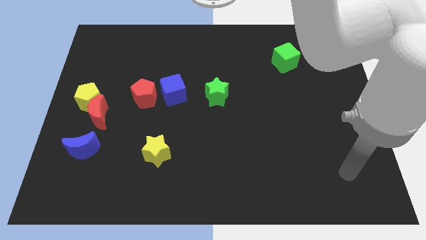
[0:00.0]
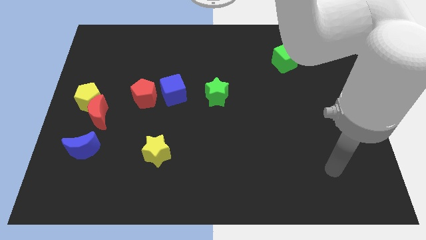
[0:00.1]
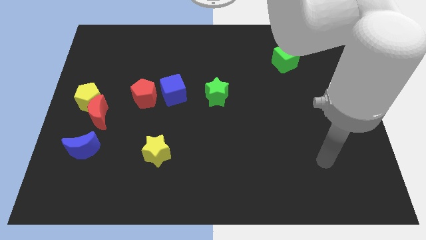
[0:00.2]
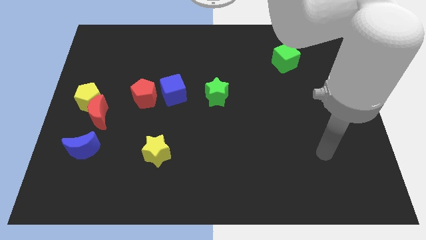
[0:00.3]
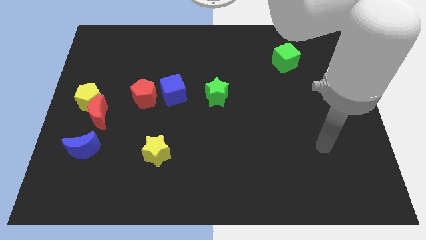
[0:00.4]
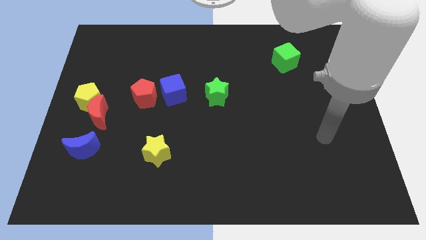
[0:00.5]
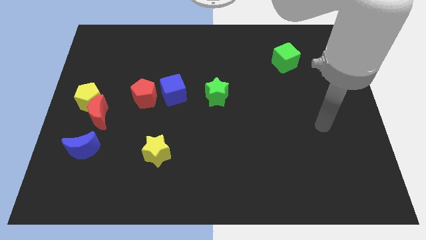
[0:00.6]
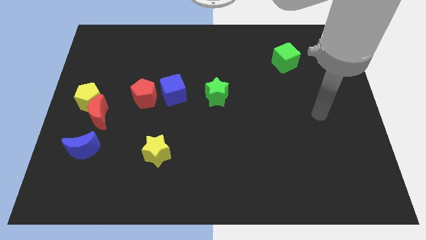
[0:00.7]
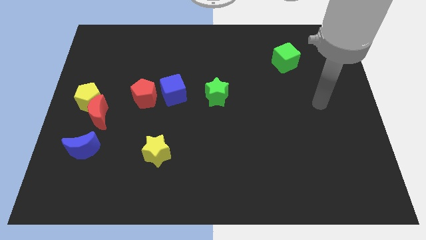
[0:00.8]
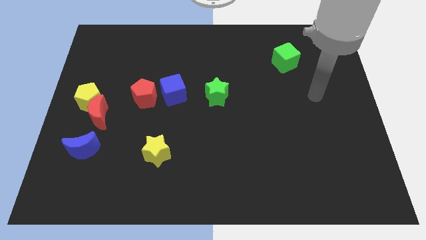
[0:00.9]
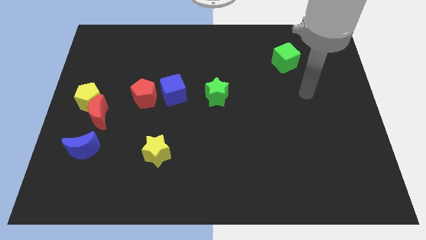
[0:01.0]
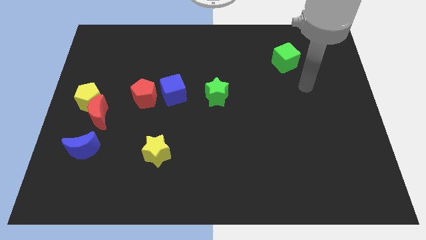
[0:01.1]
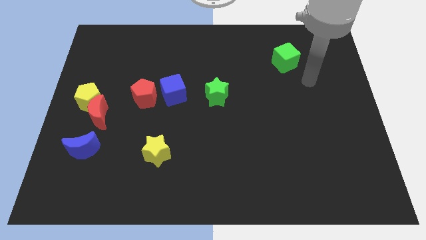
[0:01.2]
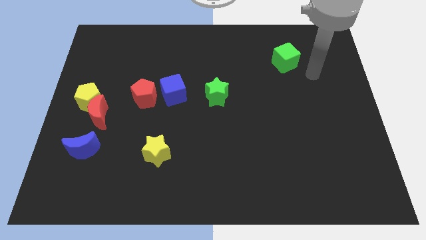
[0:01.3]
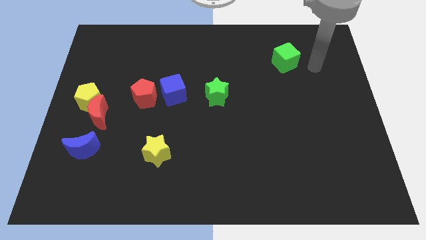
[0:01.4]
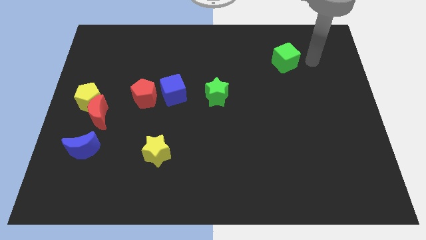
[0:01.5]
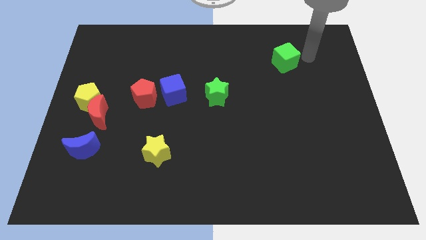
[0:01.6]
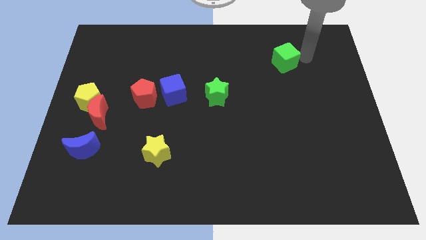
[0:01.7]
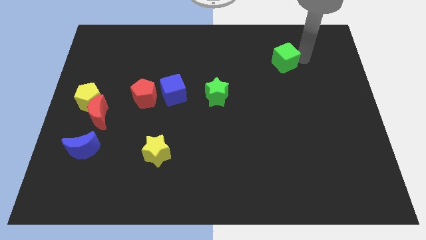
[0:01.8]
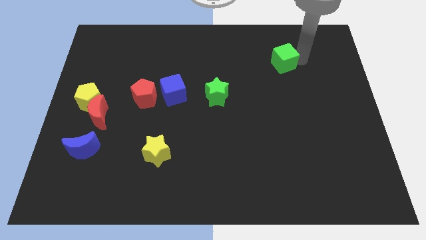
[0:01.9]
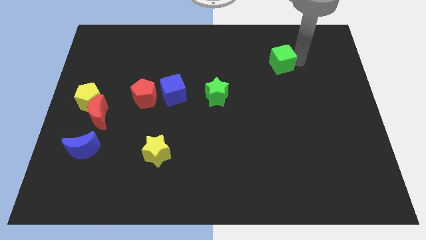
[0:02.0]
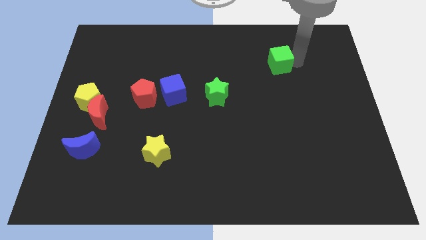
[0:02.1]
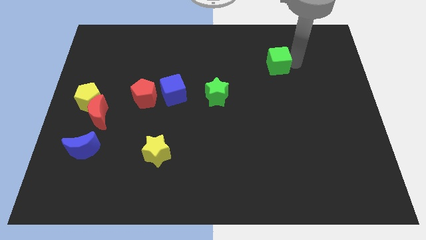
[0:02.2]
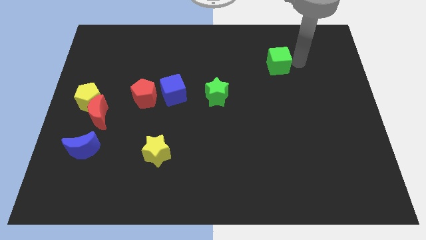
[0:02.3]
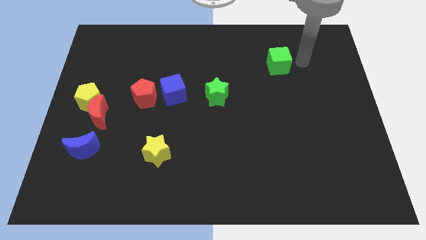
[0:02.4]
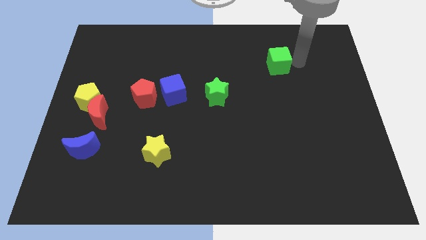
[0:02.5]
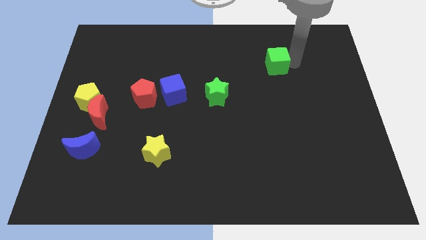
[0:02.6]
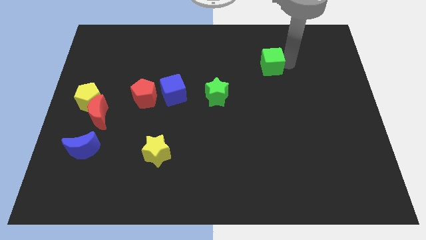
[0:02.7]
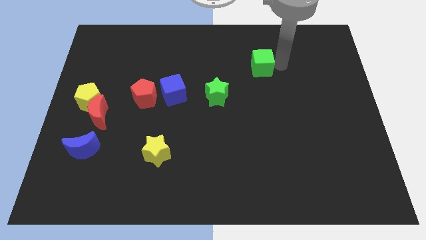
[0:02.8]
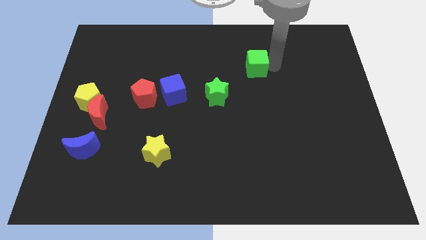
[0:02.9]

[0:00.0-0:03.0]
slide the green cube a bit left

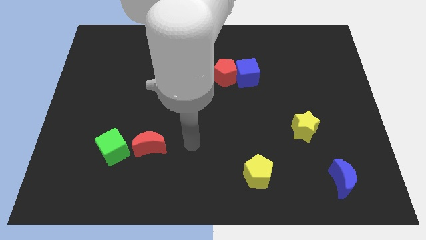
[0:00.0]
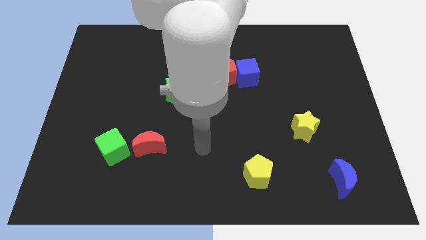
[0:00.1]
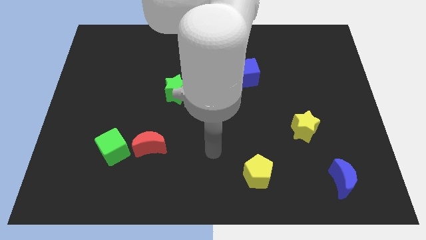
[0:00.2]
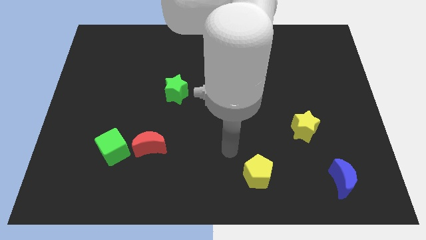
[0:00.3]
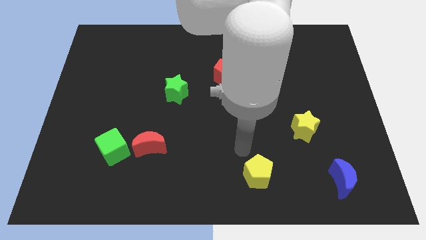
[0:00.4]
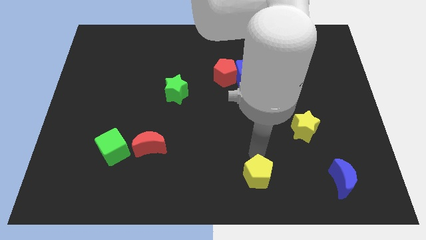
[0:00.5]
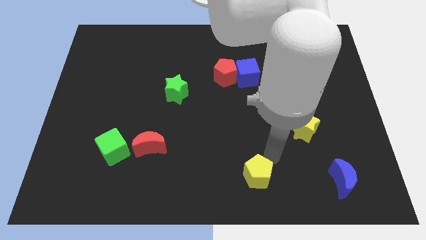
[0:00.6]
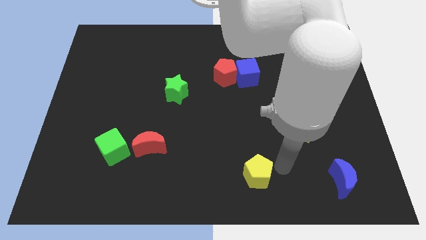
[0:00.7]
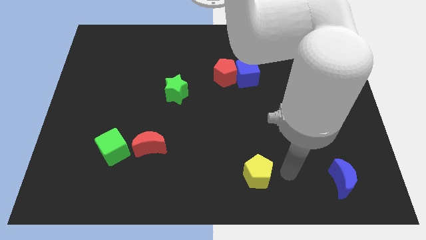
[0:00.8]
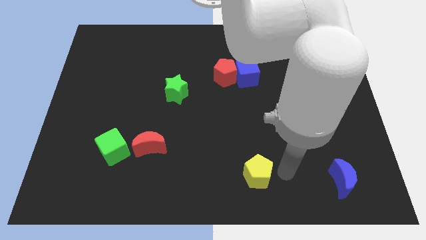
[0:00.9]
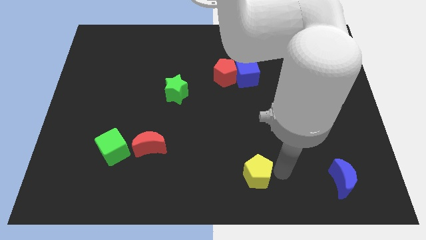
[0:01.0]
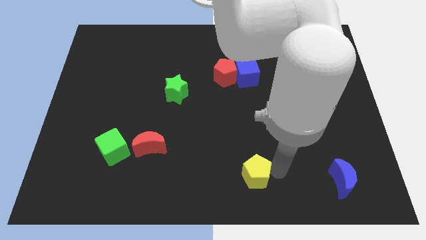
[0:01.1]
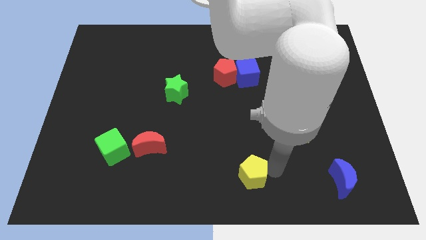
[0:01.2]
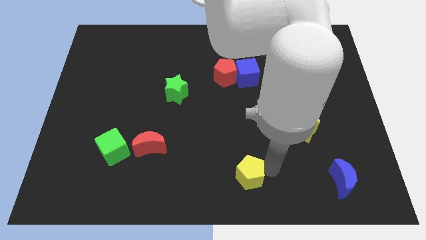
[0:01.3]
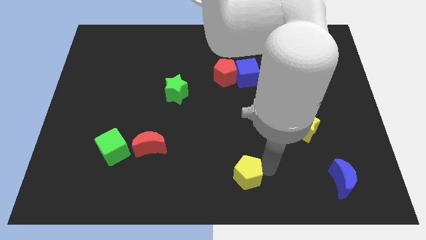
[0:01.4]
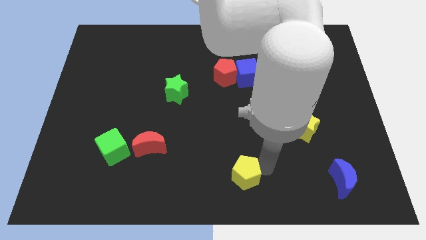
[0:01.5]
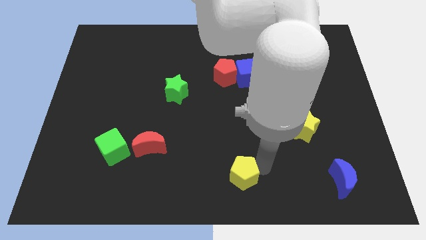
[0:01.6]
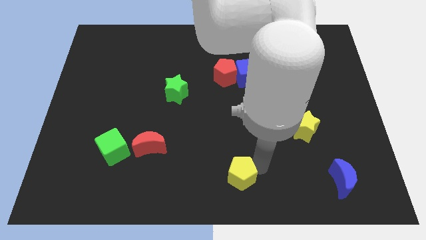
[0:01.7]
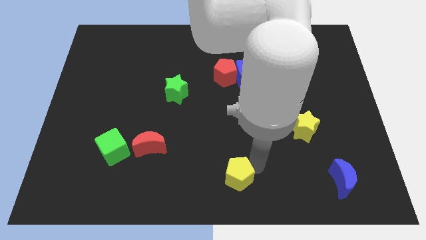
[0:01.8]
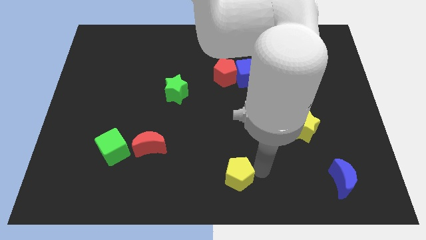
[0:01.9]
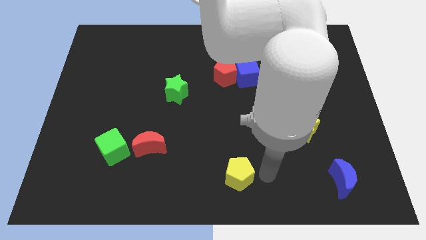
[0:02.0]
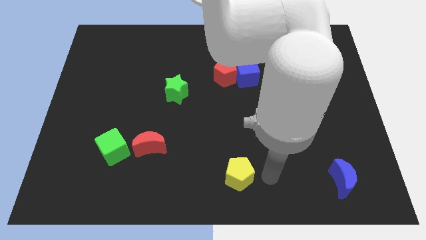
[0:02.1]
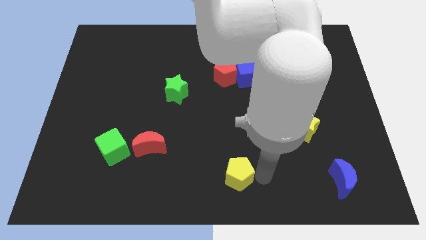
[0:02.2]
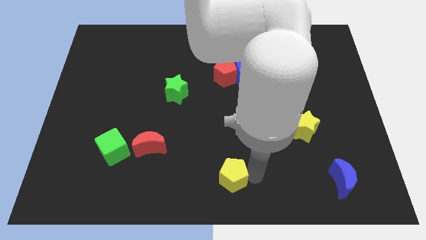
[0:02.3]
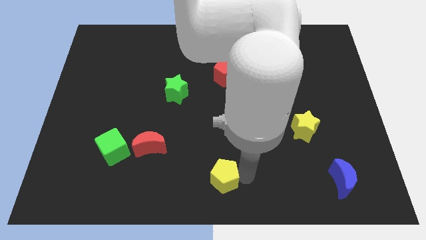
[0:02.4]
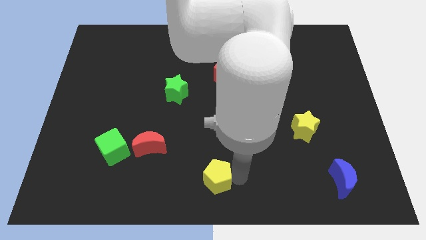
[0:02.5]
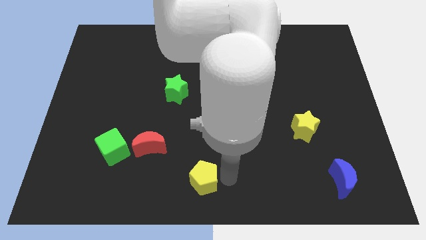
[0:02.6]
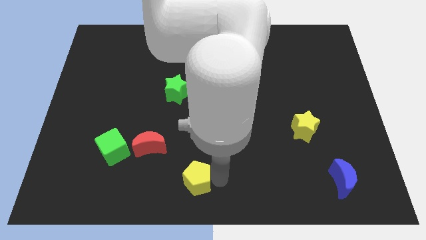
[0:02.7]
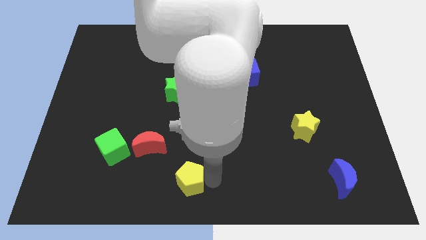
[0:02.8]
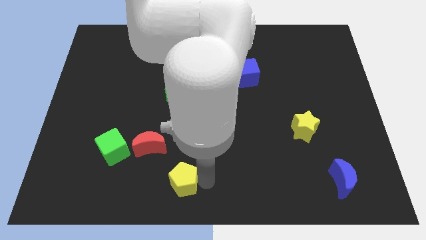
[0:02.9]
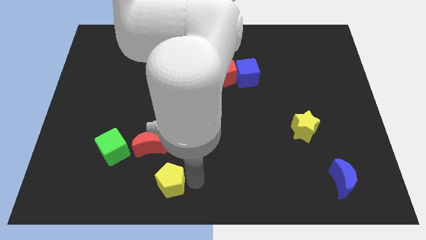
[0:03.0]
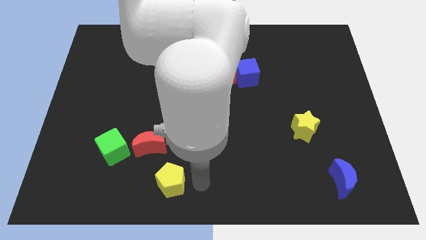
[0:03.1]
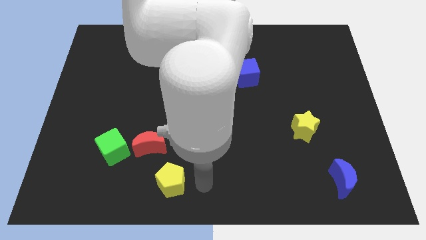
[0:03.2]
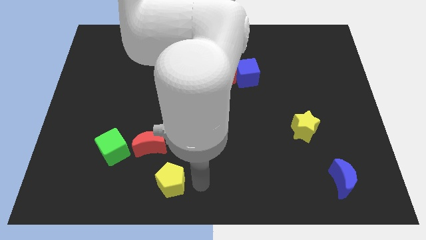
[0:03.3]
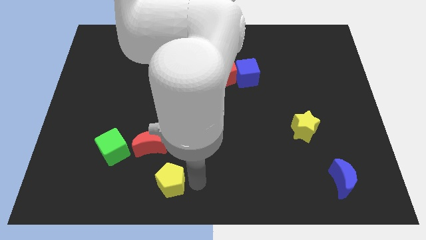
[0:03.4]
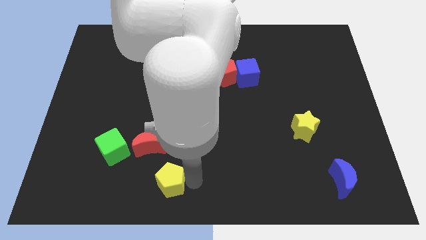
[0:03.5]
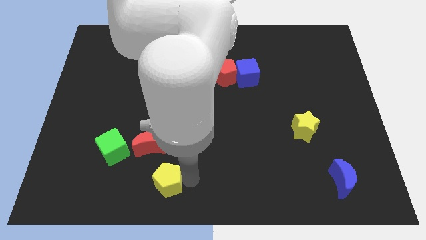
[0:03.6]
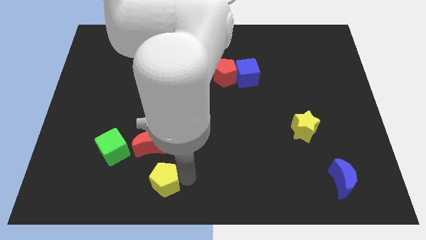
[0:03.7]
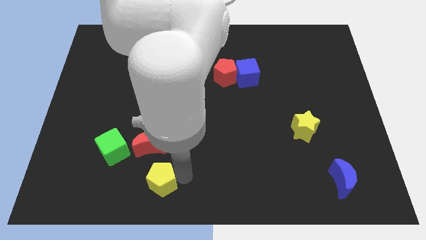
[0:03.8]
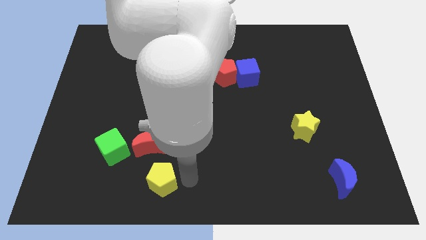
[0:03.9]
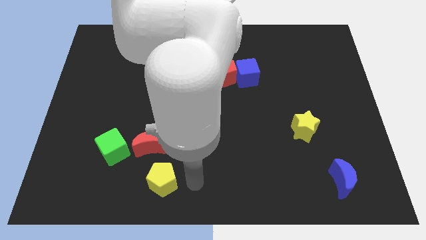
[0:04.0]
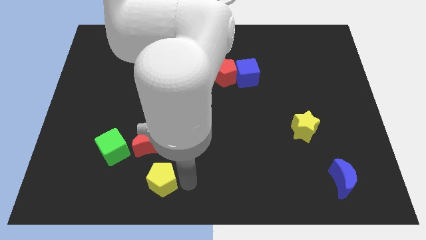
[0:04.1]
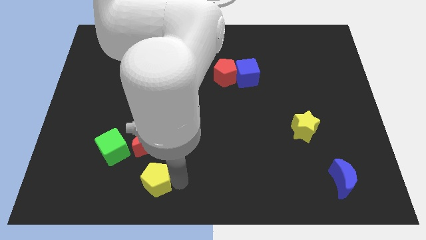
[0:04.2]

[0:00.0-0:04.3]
move the yellow pentagon to the left

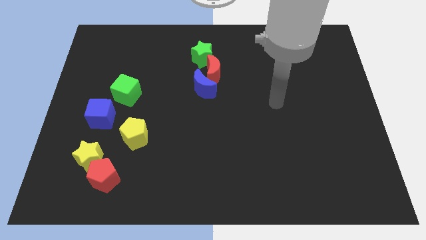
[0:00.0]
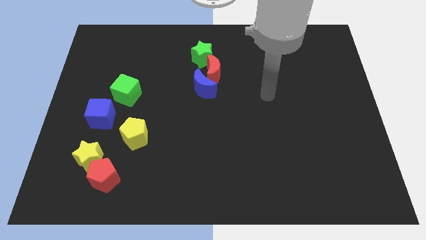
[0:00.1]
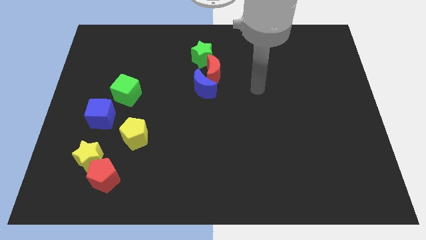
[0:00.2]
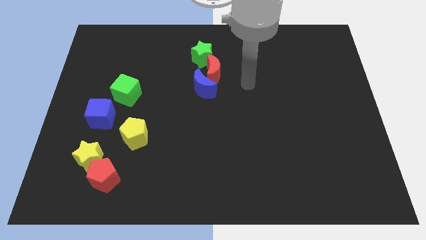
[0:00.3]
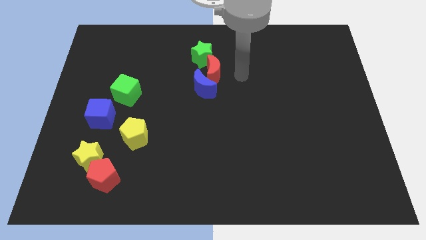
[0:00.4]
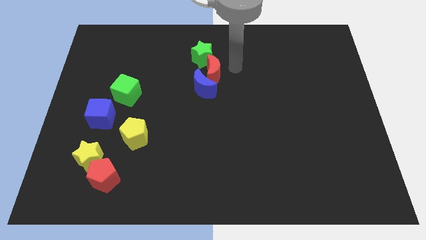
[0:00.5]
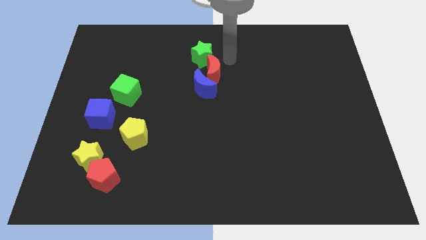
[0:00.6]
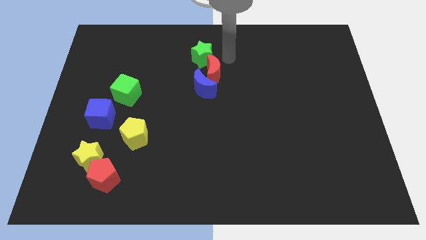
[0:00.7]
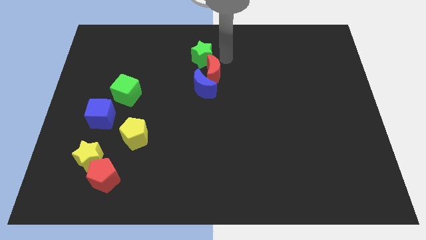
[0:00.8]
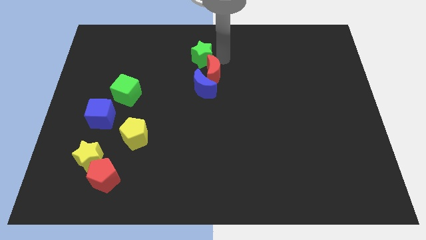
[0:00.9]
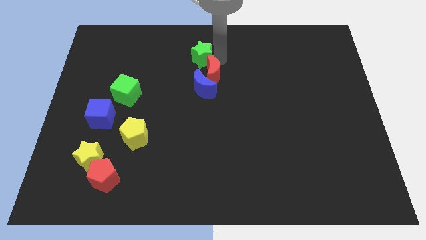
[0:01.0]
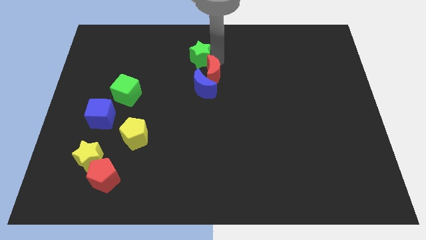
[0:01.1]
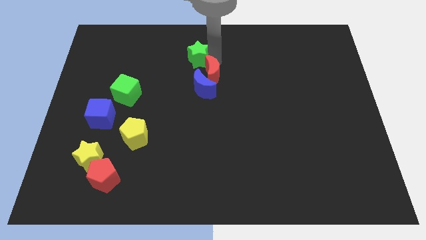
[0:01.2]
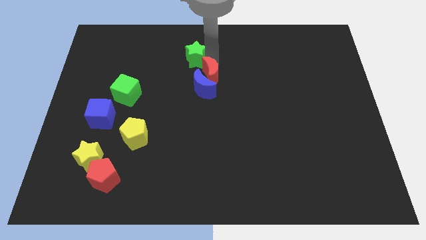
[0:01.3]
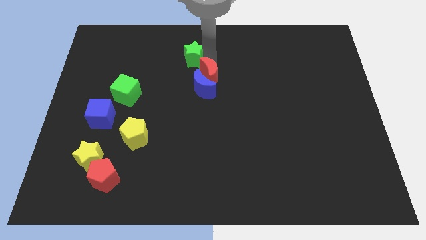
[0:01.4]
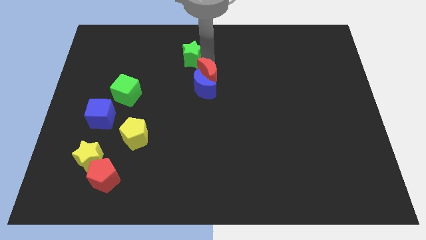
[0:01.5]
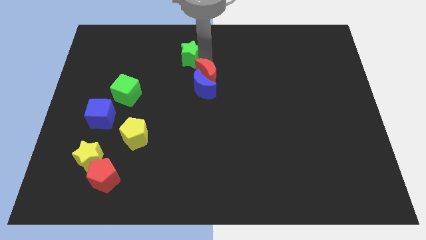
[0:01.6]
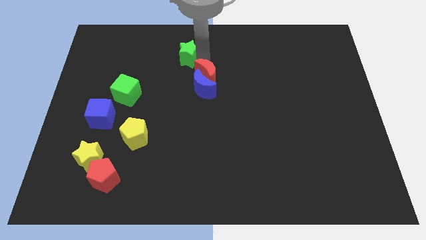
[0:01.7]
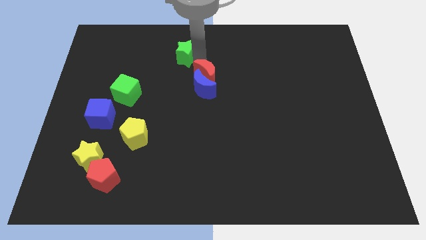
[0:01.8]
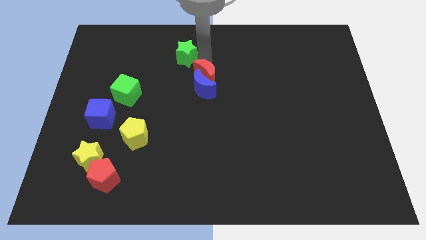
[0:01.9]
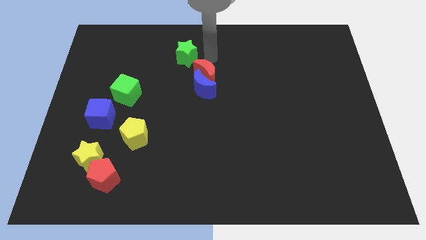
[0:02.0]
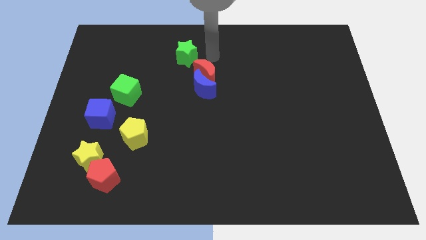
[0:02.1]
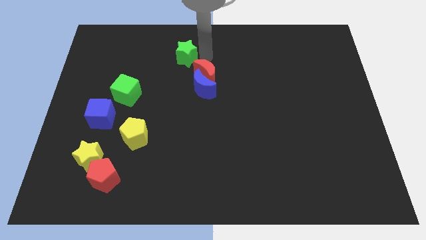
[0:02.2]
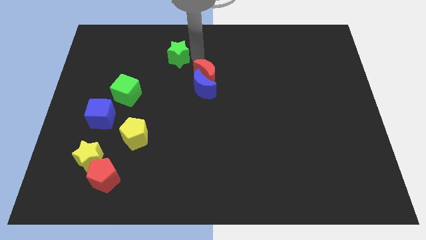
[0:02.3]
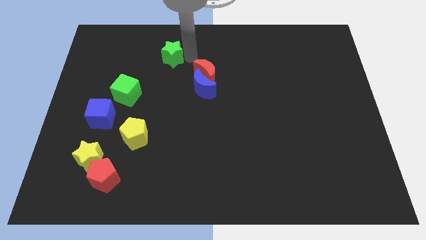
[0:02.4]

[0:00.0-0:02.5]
move the green star left somewhat
